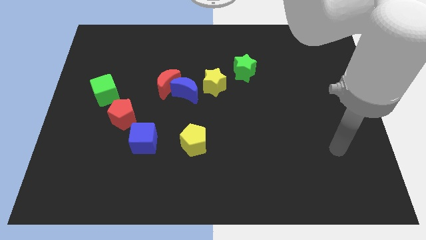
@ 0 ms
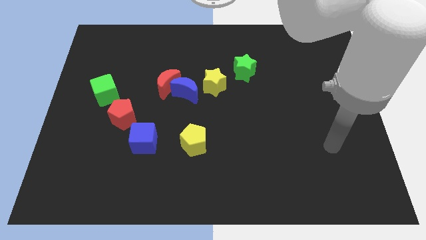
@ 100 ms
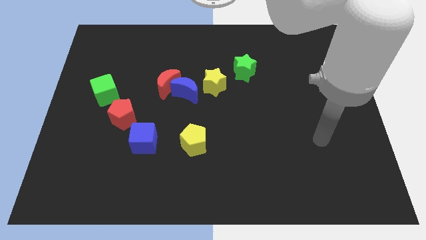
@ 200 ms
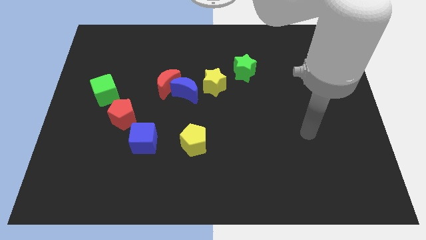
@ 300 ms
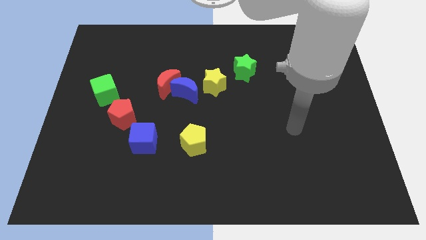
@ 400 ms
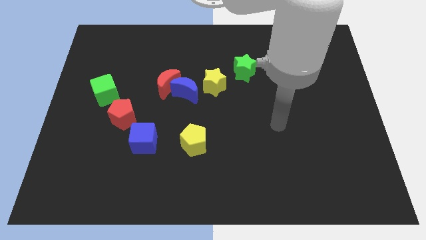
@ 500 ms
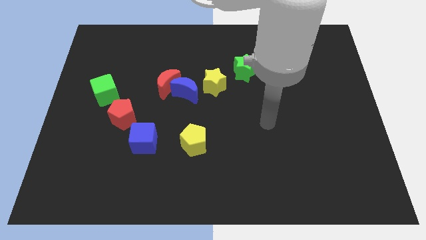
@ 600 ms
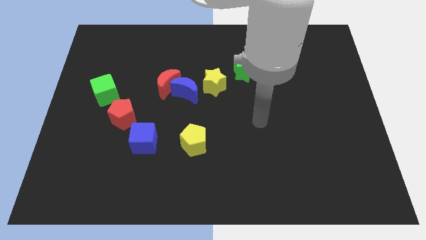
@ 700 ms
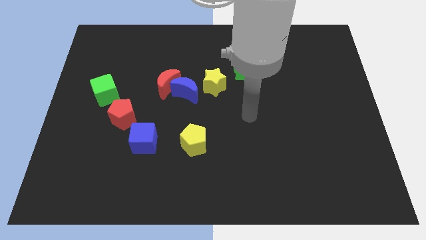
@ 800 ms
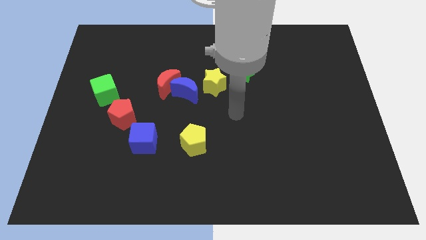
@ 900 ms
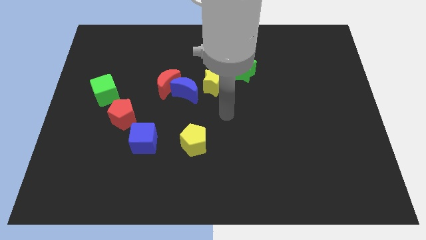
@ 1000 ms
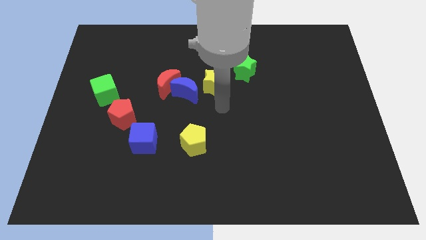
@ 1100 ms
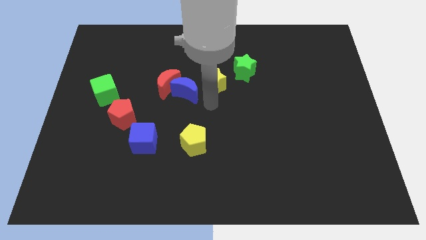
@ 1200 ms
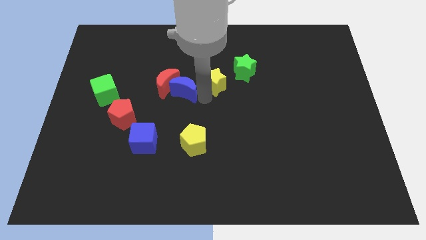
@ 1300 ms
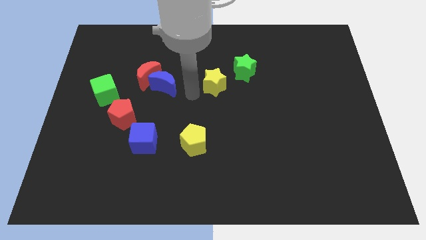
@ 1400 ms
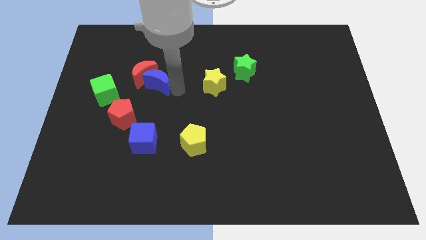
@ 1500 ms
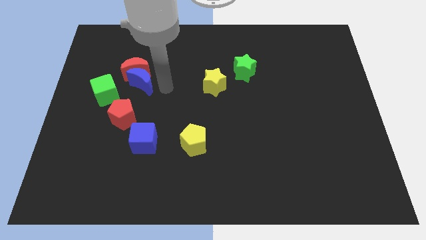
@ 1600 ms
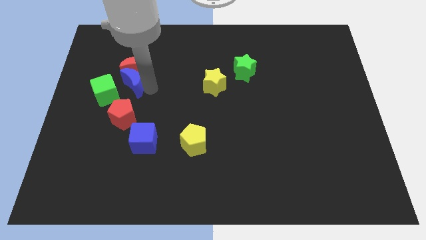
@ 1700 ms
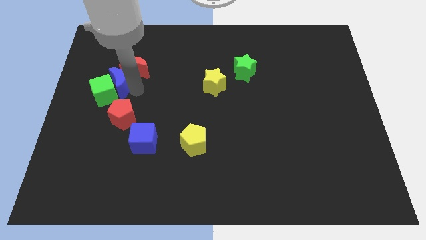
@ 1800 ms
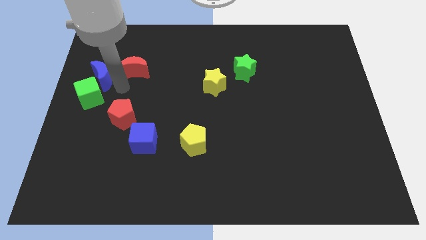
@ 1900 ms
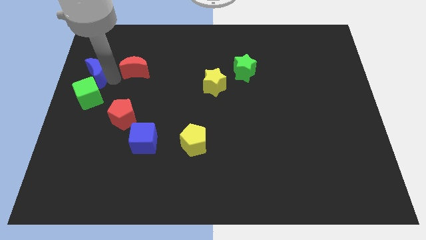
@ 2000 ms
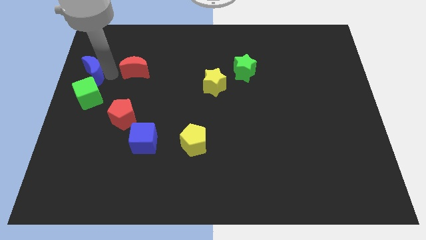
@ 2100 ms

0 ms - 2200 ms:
move the red moon away from the blue moon

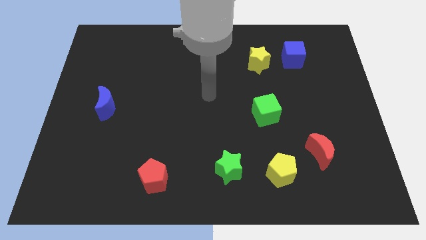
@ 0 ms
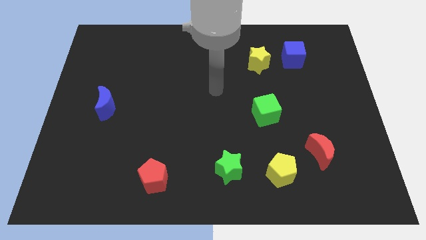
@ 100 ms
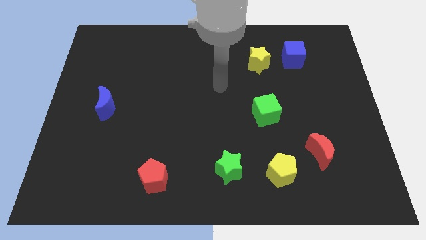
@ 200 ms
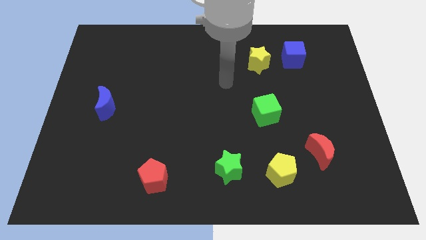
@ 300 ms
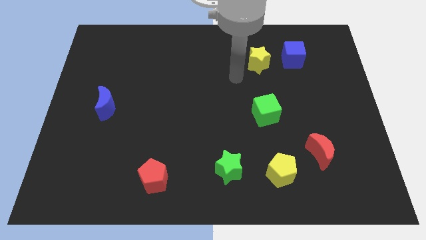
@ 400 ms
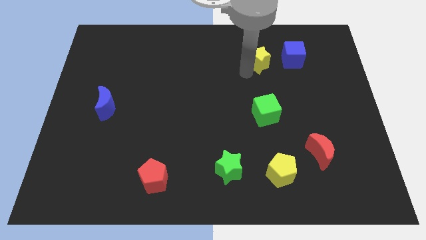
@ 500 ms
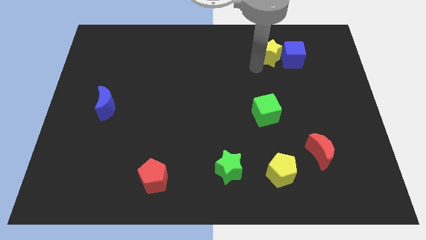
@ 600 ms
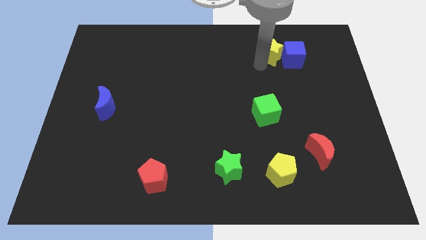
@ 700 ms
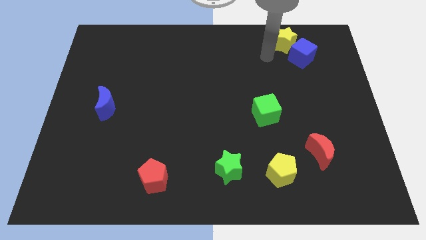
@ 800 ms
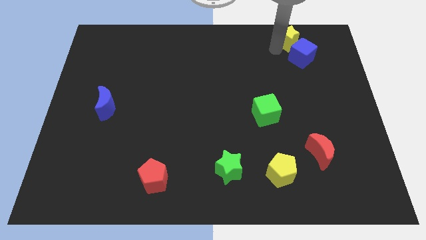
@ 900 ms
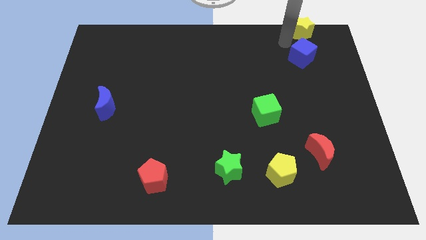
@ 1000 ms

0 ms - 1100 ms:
pull the blue cube apart from the yellow star

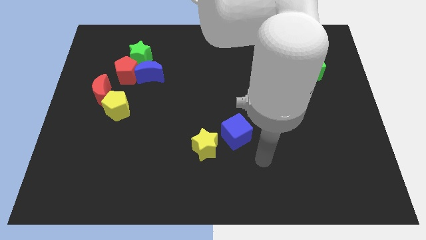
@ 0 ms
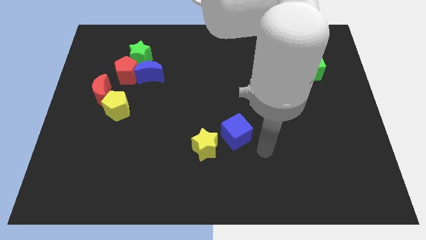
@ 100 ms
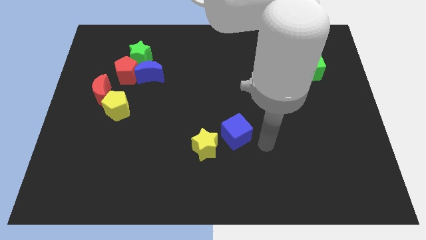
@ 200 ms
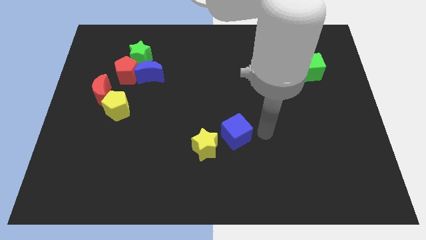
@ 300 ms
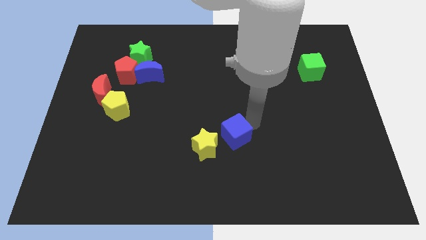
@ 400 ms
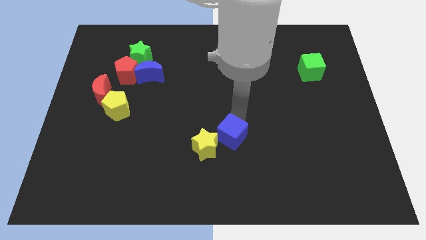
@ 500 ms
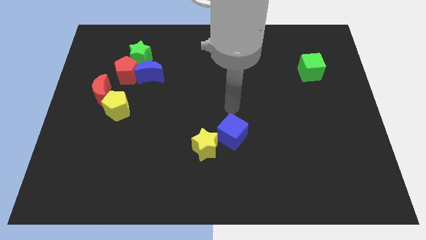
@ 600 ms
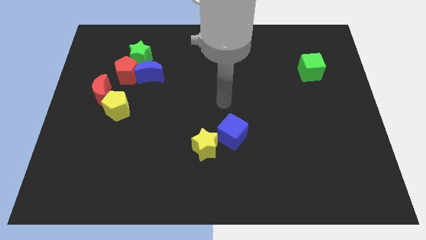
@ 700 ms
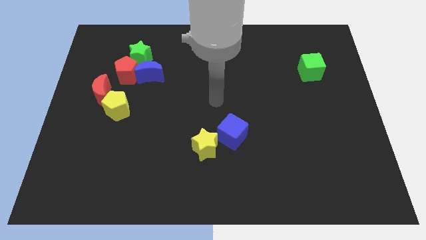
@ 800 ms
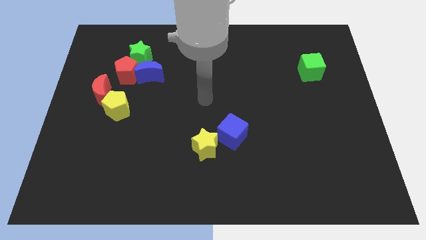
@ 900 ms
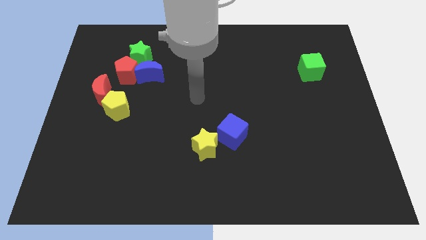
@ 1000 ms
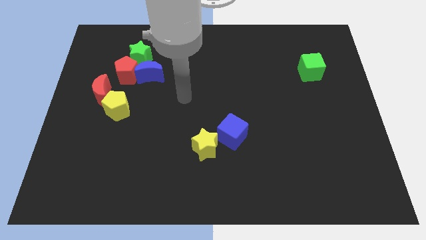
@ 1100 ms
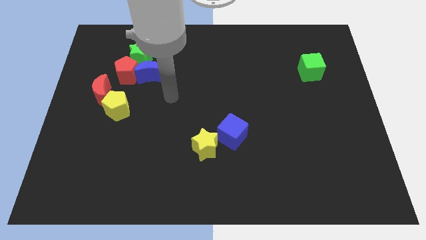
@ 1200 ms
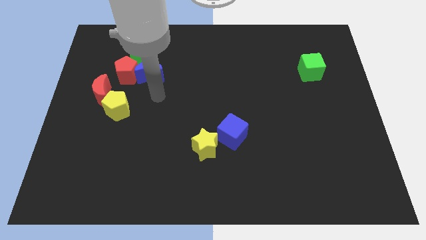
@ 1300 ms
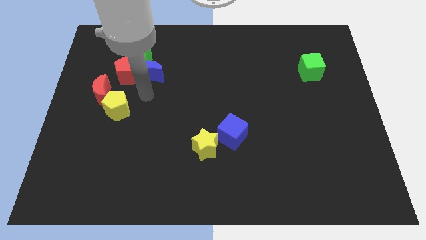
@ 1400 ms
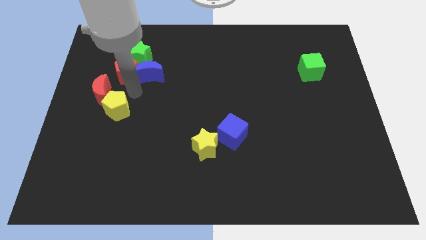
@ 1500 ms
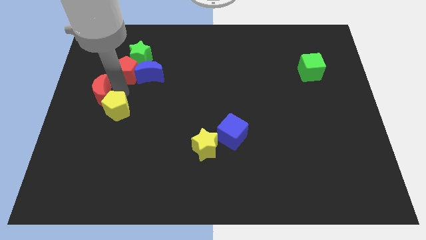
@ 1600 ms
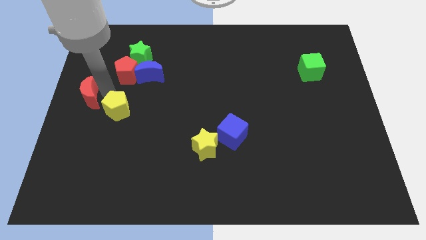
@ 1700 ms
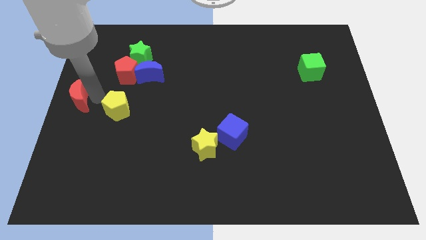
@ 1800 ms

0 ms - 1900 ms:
pull the yellow pentagon apart from the red moon

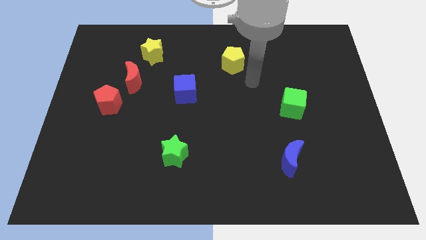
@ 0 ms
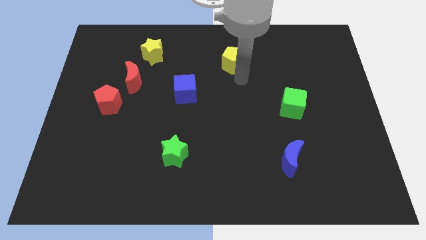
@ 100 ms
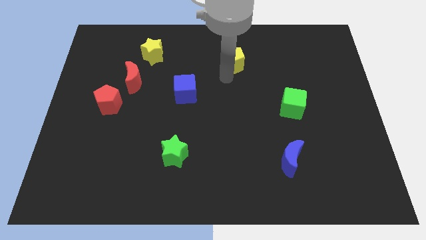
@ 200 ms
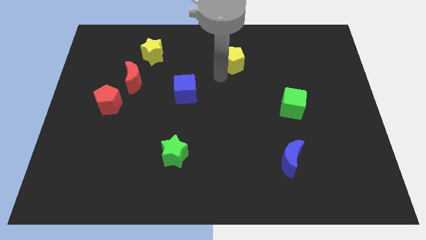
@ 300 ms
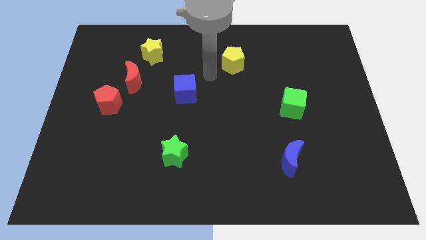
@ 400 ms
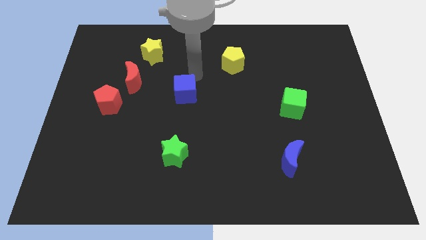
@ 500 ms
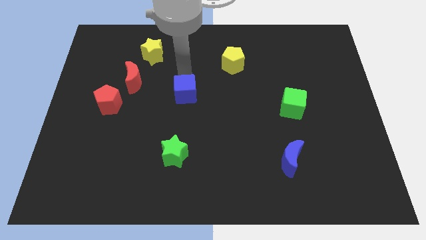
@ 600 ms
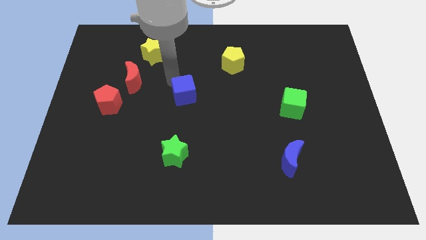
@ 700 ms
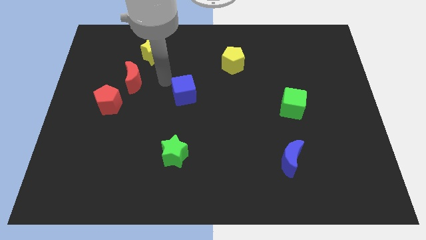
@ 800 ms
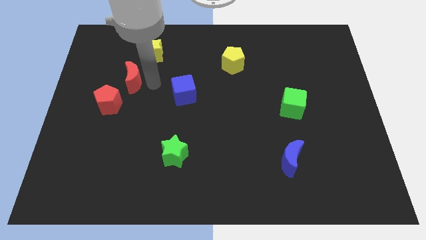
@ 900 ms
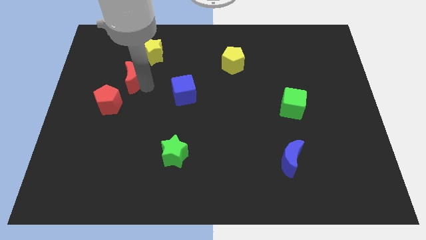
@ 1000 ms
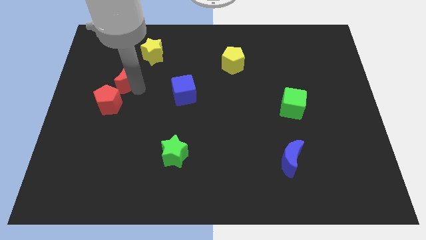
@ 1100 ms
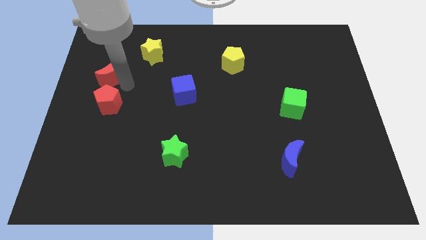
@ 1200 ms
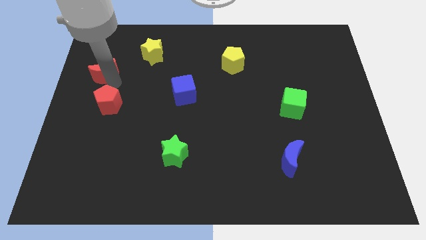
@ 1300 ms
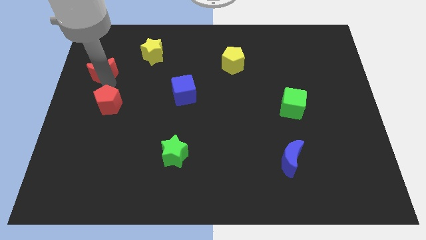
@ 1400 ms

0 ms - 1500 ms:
separate the red pentagon from the red moon

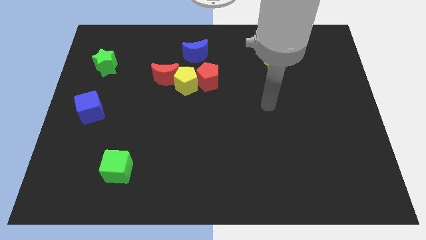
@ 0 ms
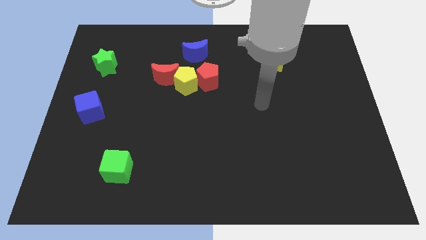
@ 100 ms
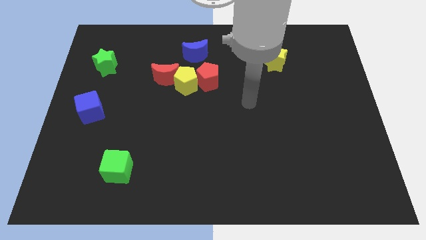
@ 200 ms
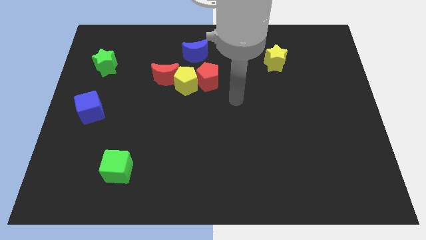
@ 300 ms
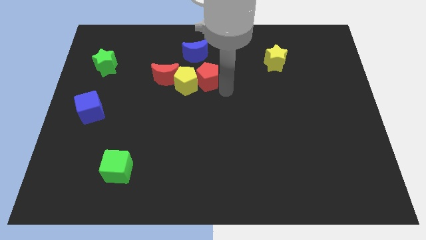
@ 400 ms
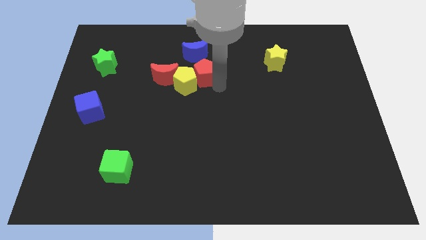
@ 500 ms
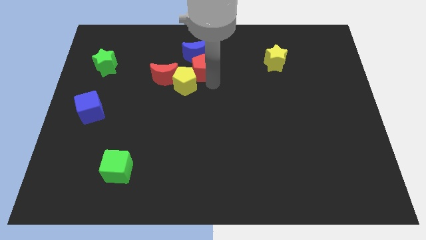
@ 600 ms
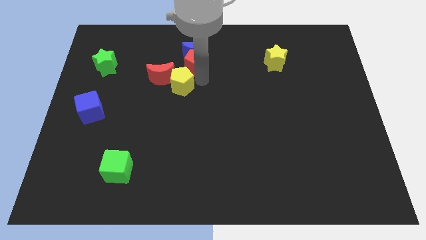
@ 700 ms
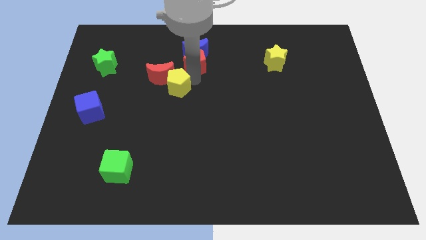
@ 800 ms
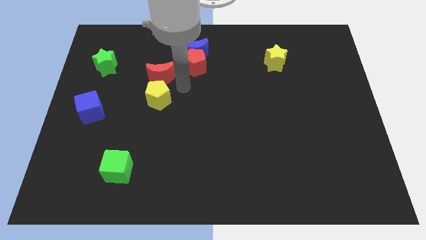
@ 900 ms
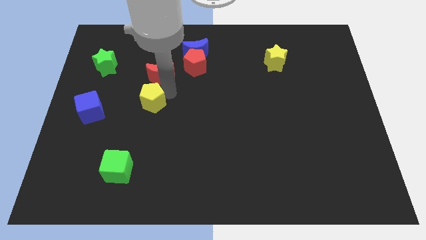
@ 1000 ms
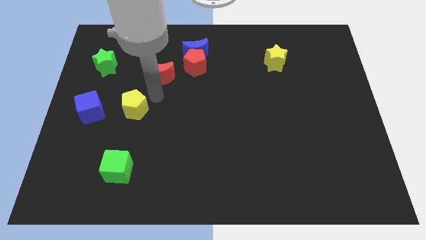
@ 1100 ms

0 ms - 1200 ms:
separate the red moon from the yellow pentagon

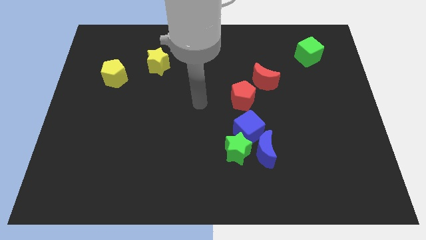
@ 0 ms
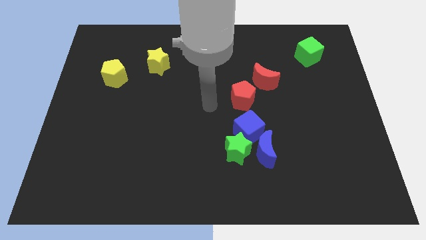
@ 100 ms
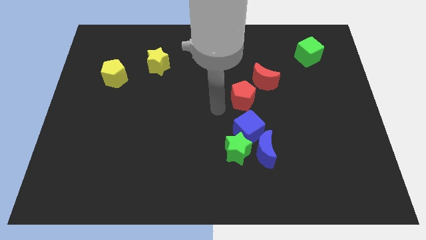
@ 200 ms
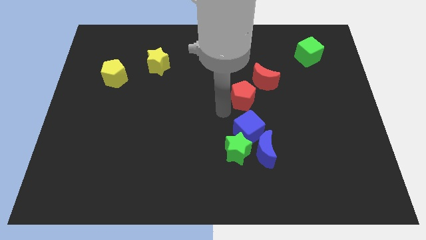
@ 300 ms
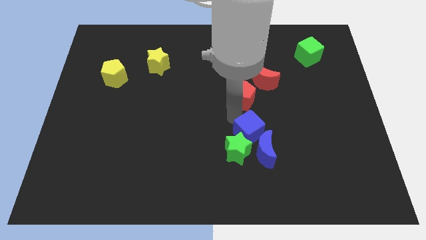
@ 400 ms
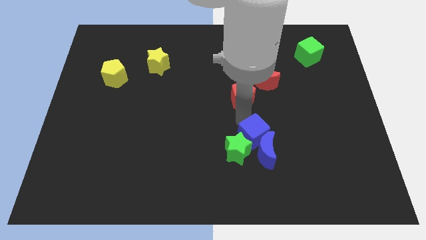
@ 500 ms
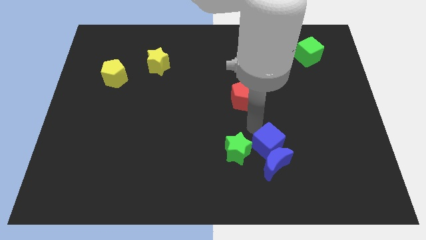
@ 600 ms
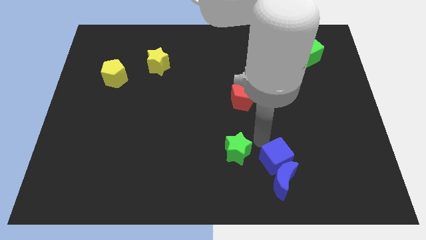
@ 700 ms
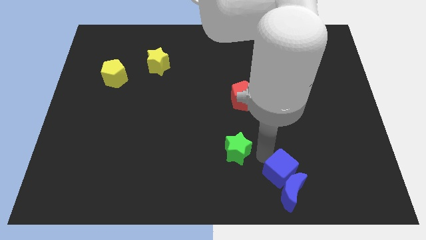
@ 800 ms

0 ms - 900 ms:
separate the green star from the blue moon and blue cube

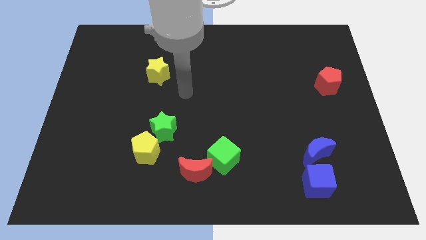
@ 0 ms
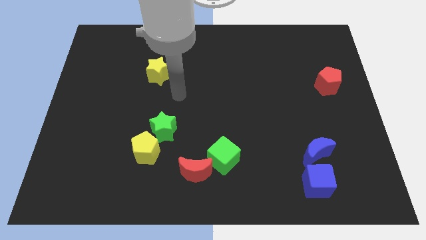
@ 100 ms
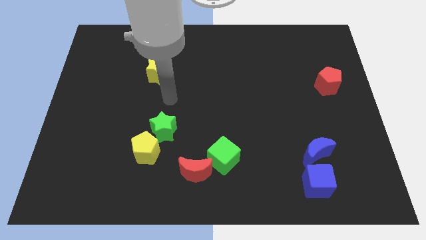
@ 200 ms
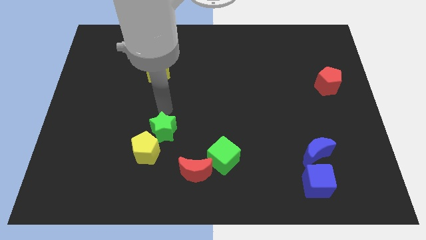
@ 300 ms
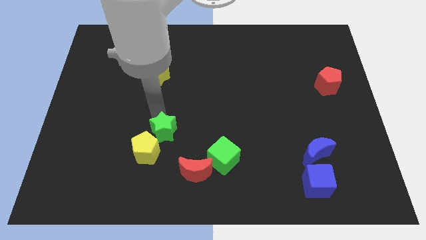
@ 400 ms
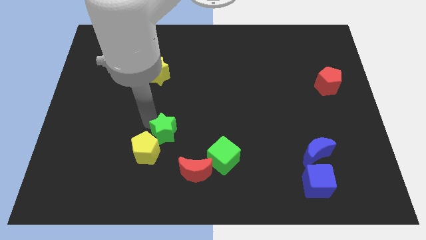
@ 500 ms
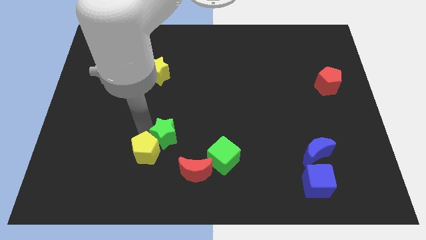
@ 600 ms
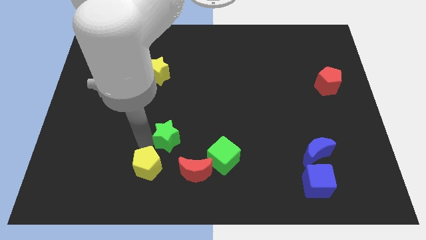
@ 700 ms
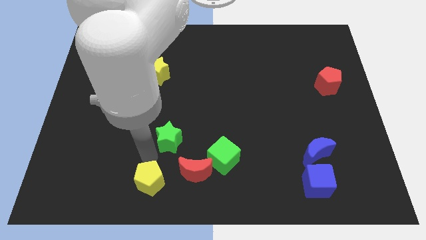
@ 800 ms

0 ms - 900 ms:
move the green star away from the yellow pentagon
